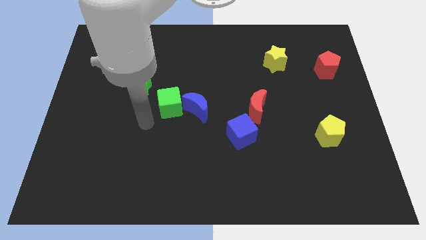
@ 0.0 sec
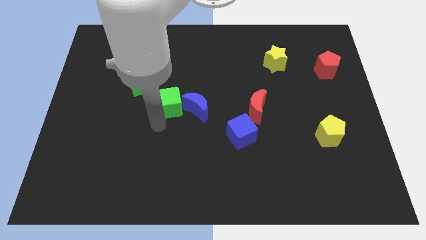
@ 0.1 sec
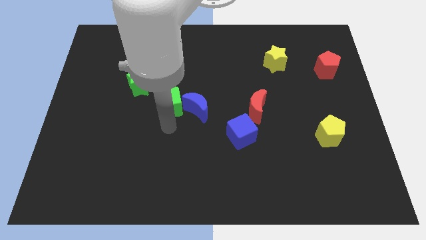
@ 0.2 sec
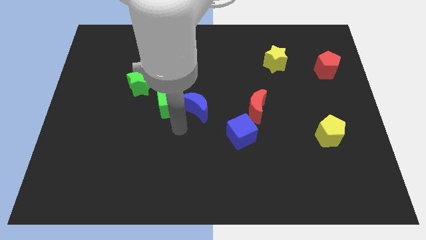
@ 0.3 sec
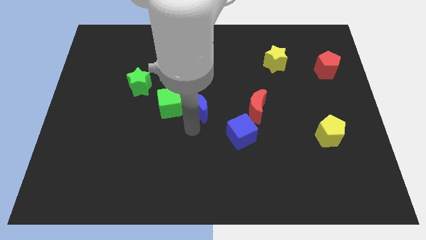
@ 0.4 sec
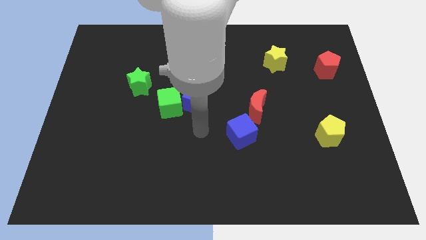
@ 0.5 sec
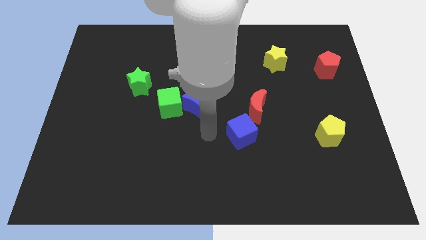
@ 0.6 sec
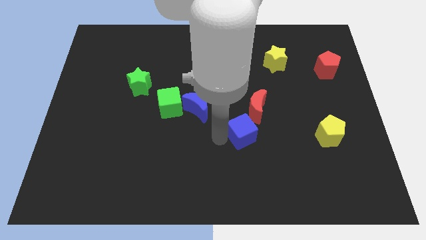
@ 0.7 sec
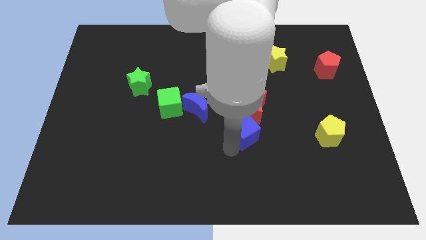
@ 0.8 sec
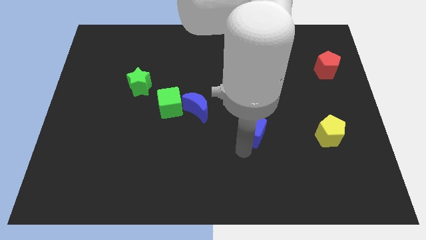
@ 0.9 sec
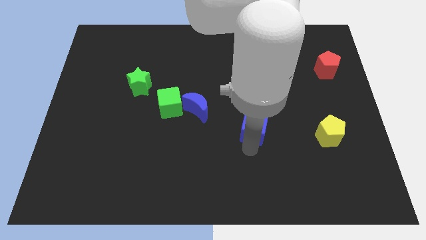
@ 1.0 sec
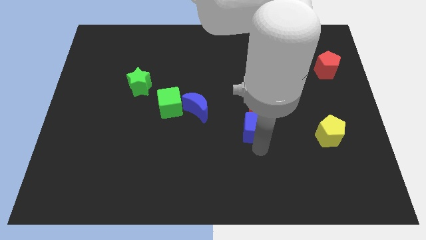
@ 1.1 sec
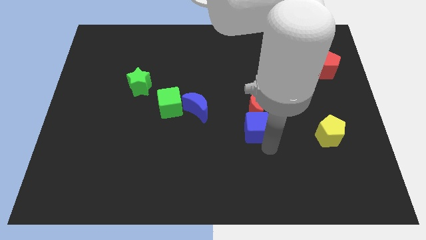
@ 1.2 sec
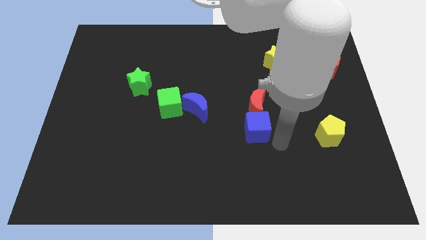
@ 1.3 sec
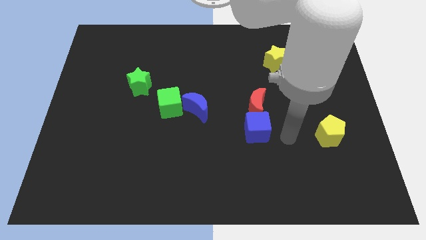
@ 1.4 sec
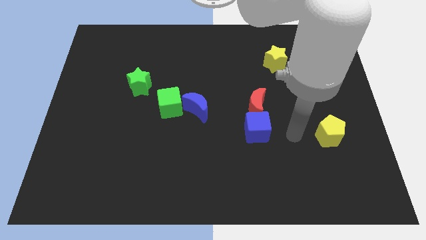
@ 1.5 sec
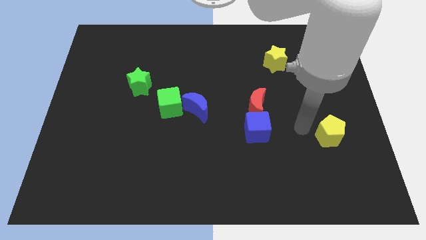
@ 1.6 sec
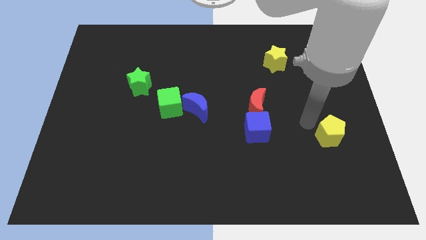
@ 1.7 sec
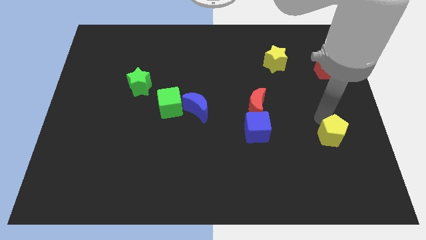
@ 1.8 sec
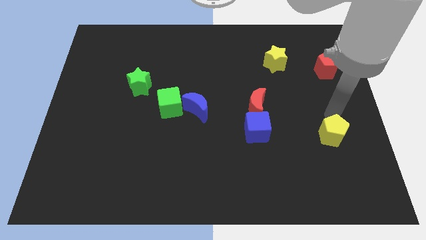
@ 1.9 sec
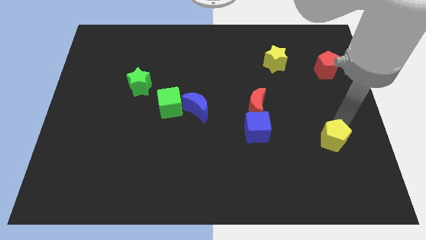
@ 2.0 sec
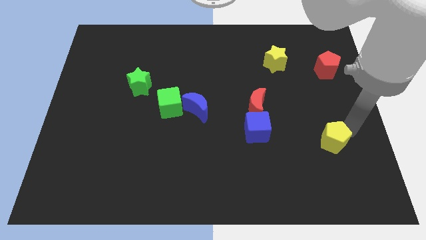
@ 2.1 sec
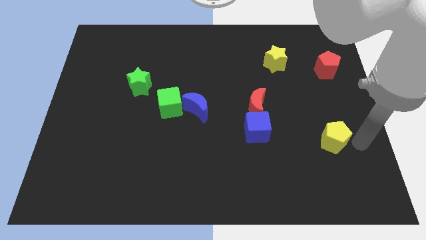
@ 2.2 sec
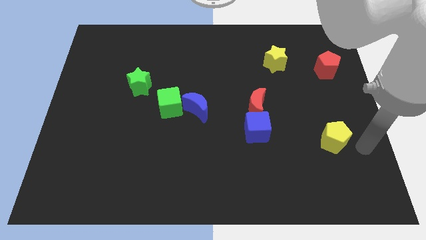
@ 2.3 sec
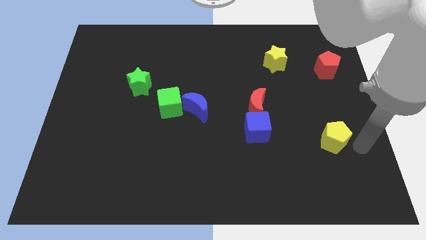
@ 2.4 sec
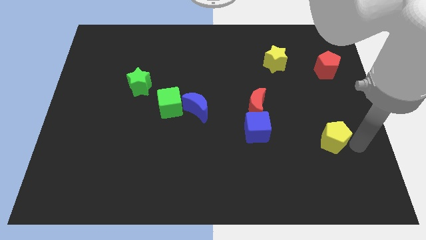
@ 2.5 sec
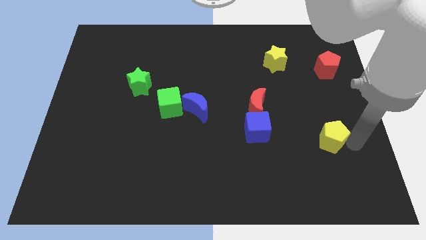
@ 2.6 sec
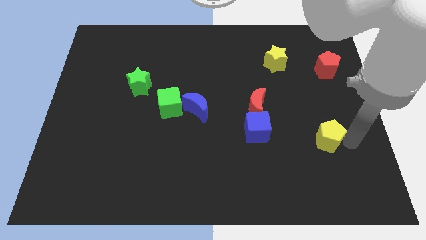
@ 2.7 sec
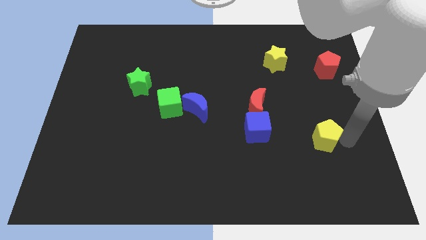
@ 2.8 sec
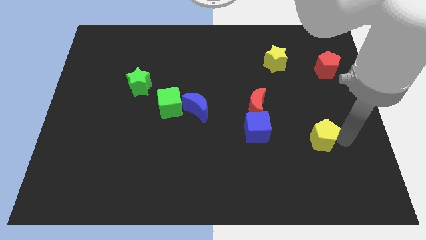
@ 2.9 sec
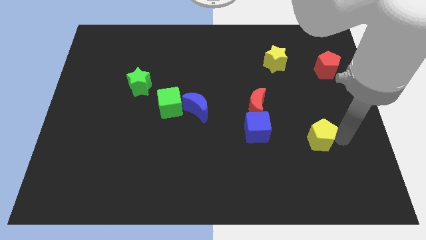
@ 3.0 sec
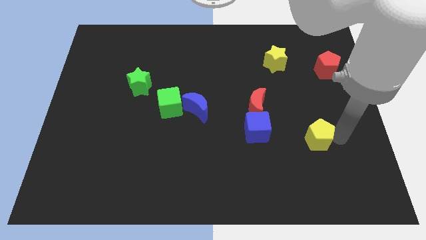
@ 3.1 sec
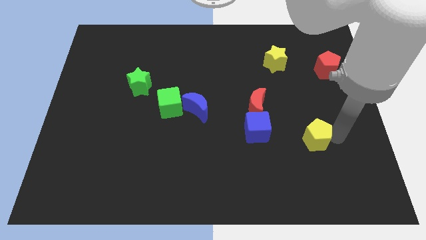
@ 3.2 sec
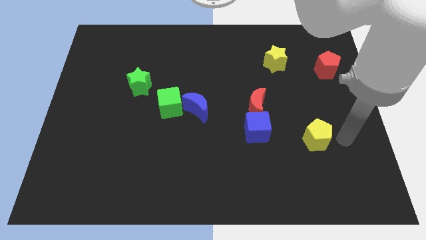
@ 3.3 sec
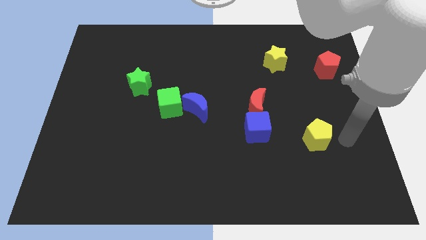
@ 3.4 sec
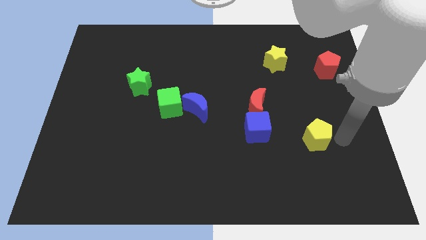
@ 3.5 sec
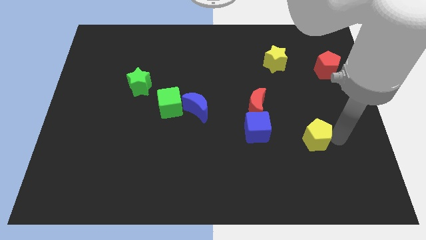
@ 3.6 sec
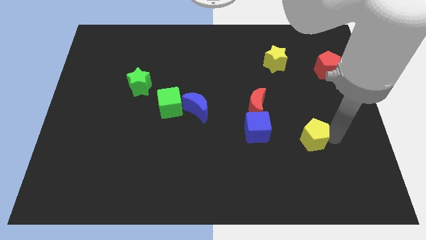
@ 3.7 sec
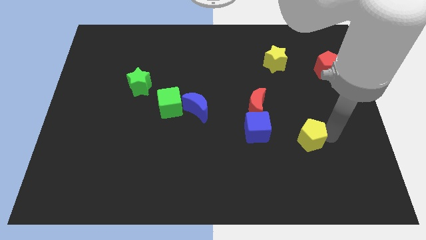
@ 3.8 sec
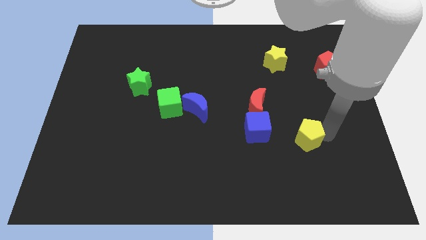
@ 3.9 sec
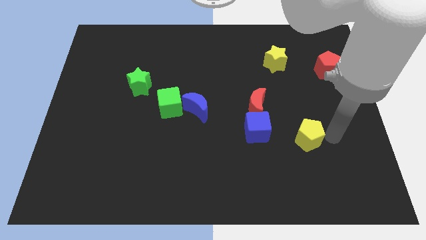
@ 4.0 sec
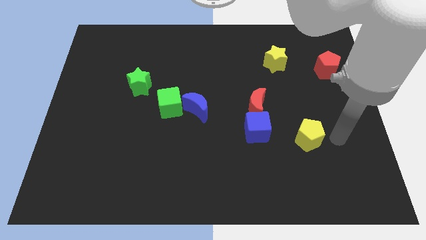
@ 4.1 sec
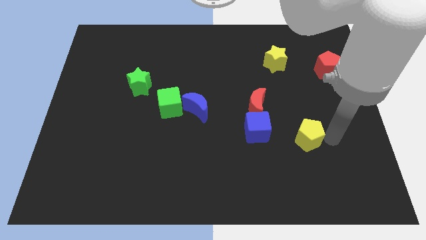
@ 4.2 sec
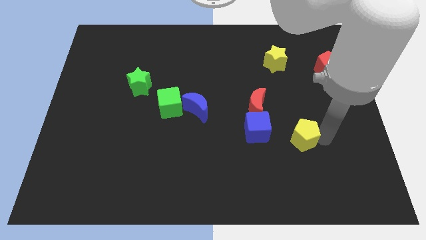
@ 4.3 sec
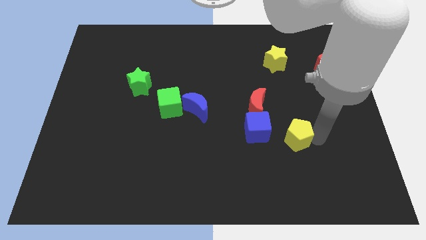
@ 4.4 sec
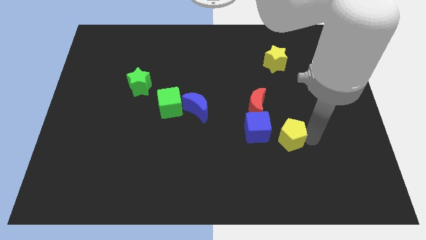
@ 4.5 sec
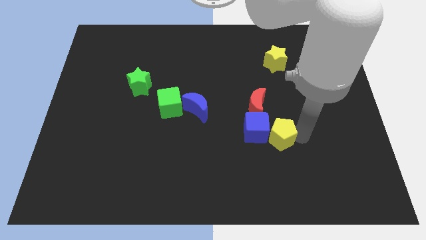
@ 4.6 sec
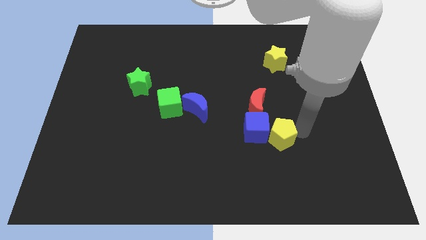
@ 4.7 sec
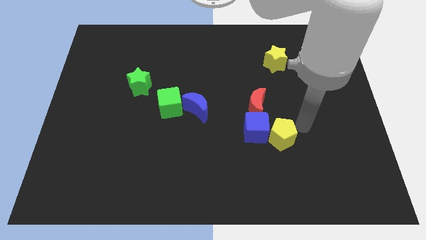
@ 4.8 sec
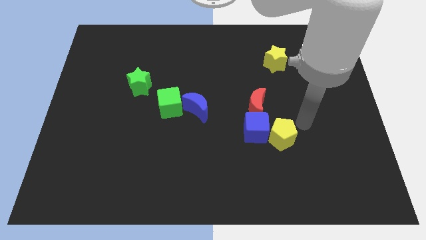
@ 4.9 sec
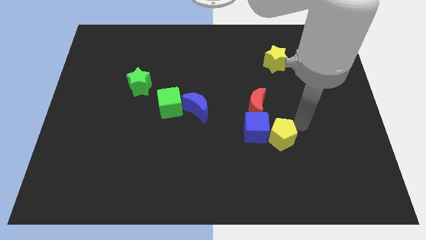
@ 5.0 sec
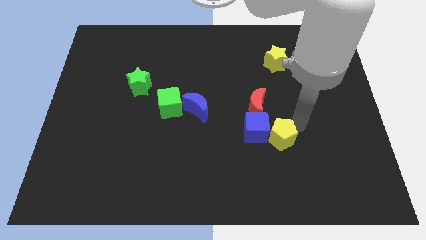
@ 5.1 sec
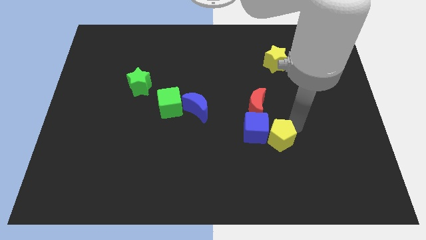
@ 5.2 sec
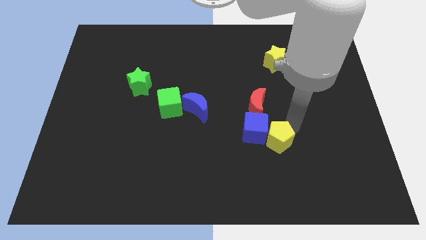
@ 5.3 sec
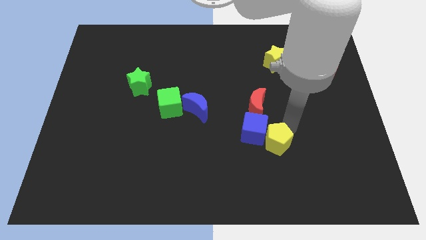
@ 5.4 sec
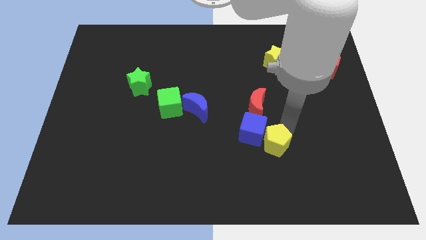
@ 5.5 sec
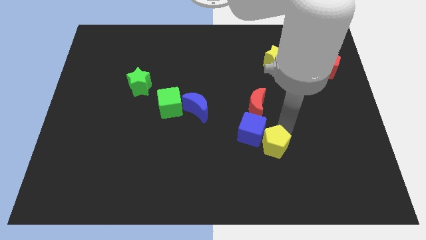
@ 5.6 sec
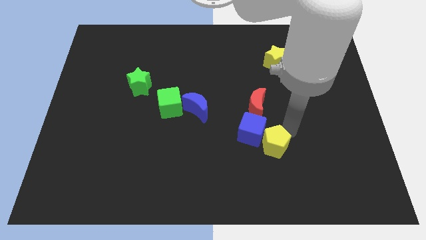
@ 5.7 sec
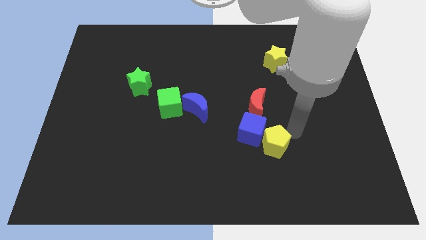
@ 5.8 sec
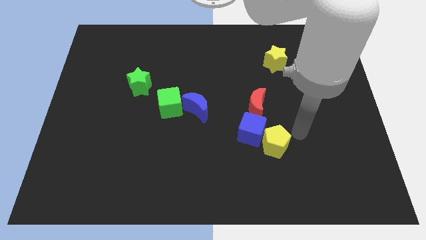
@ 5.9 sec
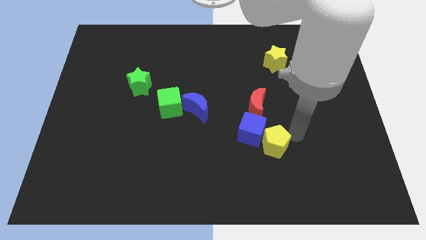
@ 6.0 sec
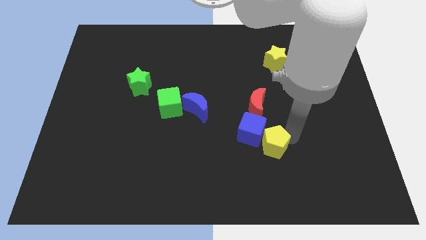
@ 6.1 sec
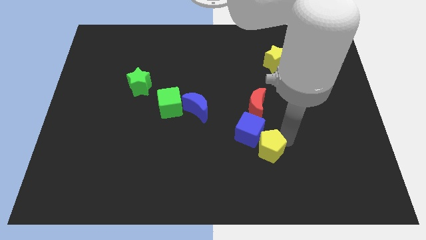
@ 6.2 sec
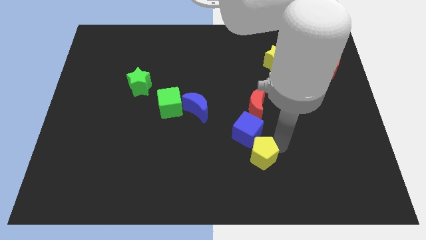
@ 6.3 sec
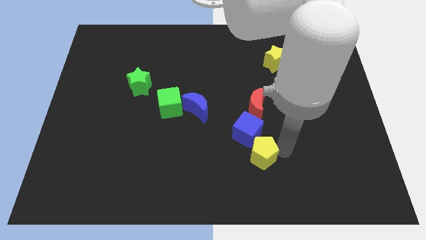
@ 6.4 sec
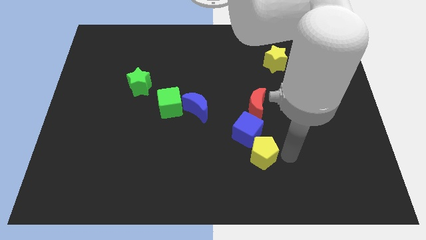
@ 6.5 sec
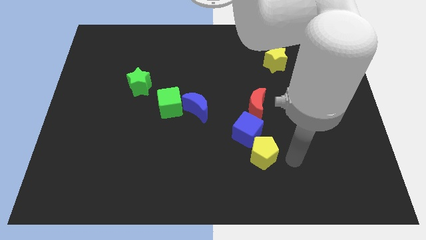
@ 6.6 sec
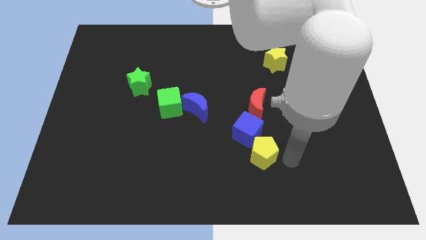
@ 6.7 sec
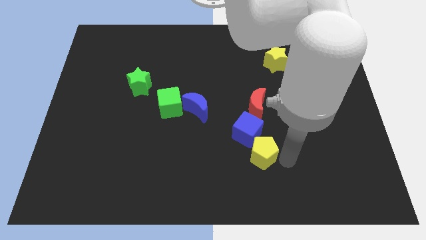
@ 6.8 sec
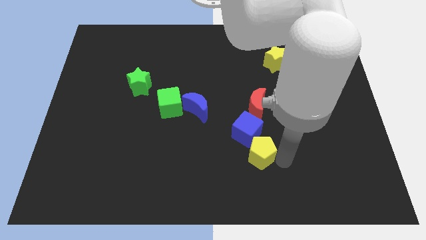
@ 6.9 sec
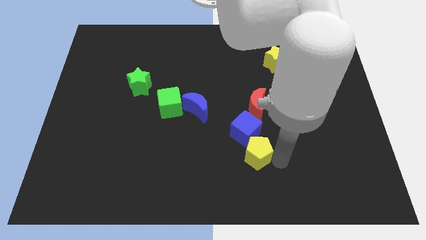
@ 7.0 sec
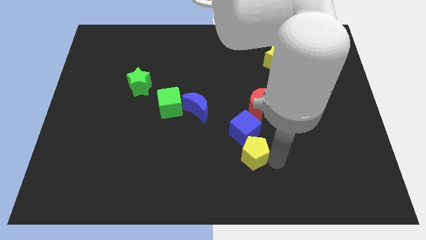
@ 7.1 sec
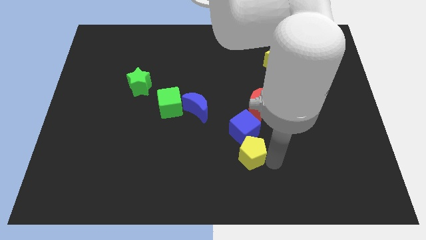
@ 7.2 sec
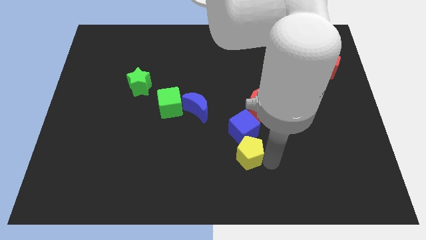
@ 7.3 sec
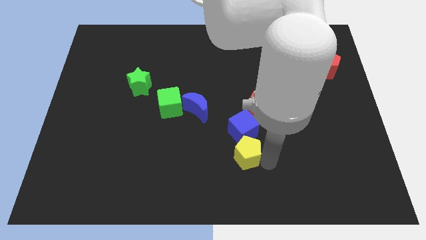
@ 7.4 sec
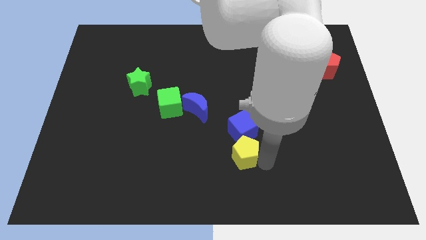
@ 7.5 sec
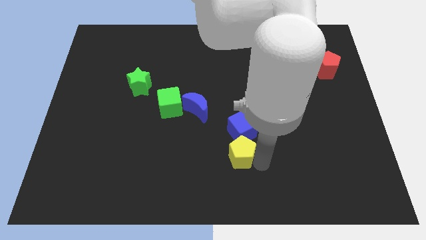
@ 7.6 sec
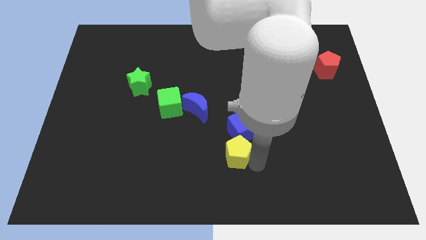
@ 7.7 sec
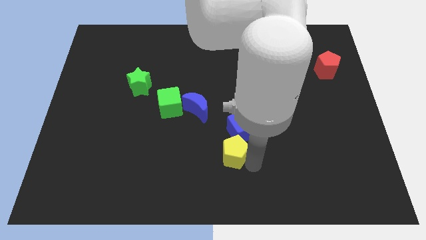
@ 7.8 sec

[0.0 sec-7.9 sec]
move the yellow pentagon left
